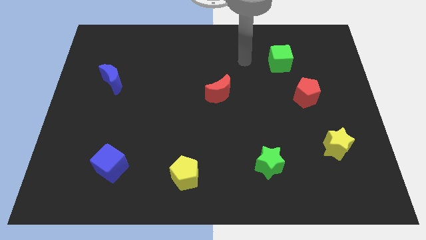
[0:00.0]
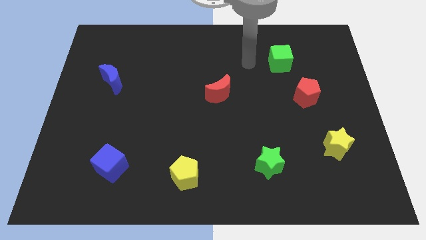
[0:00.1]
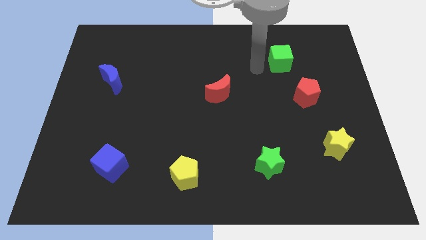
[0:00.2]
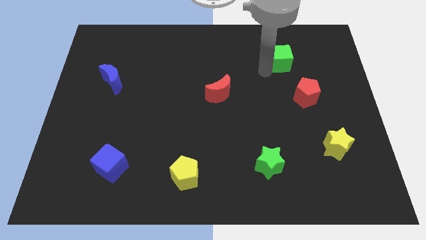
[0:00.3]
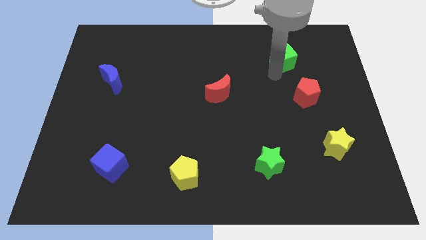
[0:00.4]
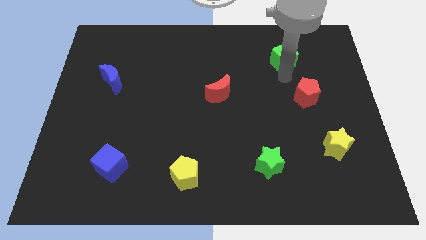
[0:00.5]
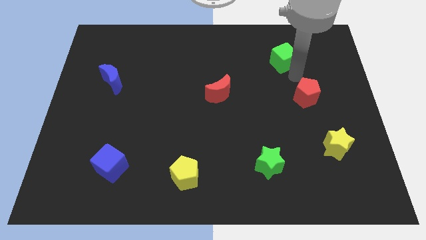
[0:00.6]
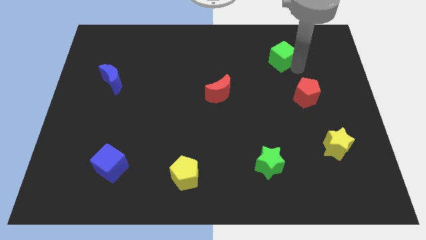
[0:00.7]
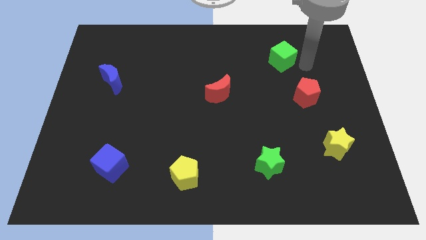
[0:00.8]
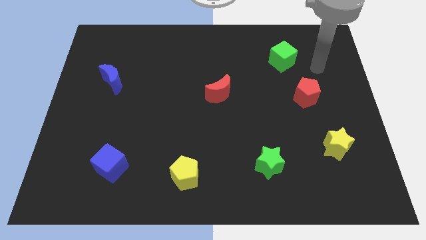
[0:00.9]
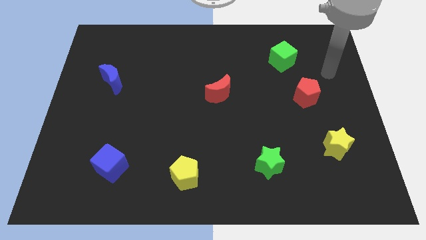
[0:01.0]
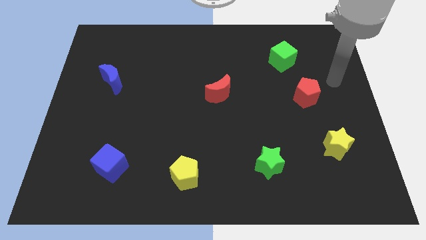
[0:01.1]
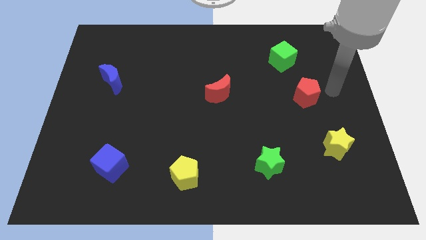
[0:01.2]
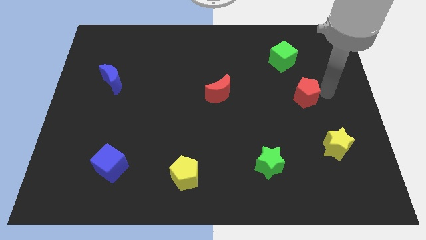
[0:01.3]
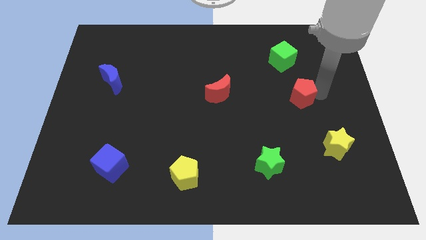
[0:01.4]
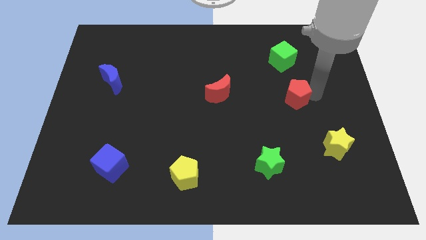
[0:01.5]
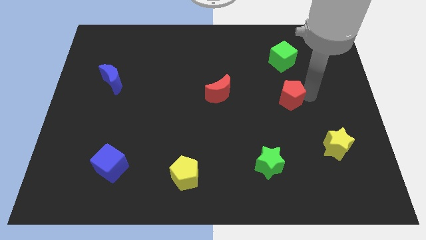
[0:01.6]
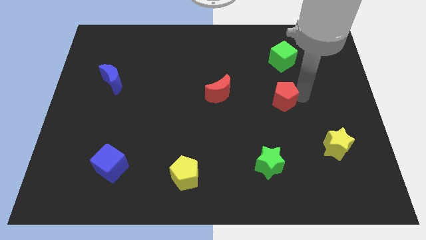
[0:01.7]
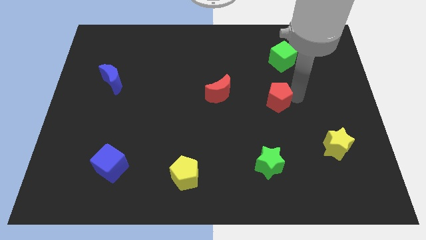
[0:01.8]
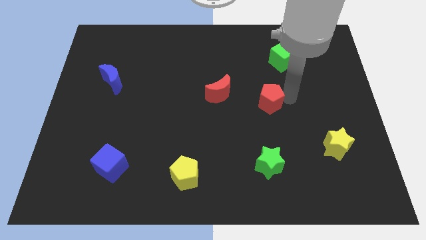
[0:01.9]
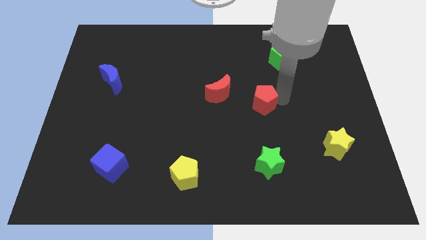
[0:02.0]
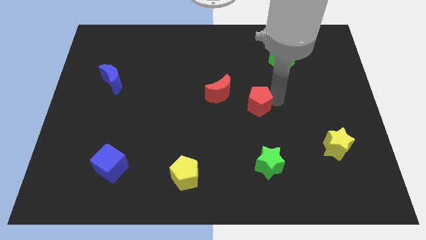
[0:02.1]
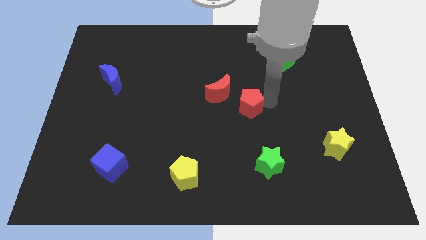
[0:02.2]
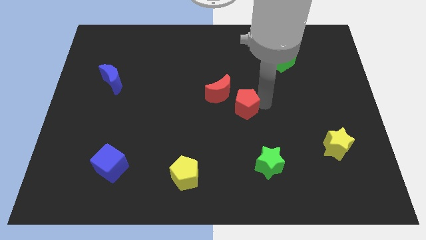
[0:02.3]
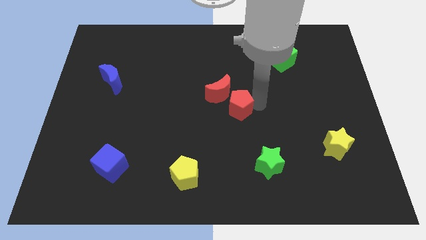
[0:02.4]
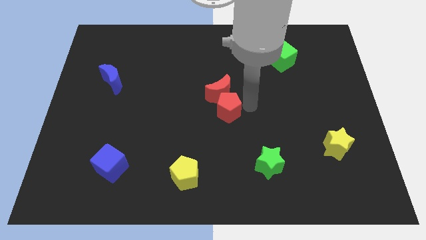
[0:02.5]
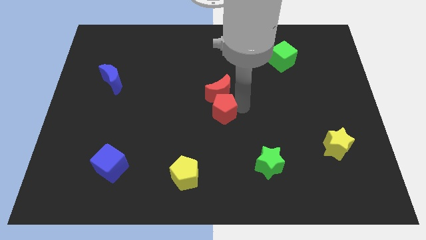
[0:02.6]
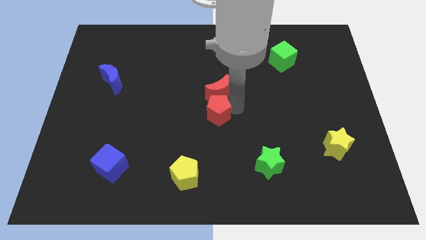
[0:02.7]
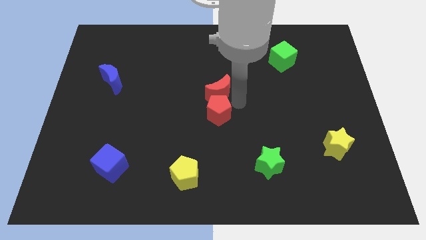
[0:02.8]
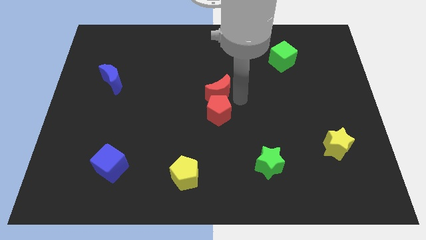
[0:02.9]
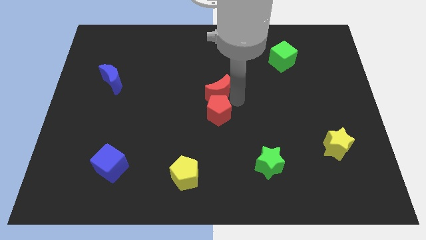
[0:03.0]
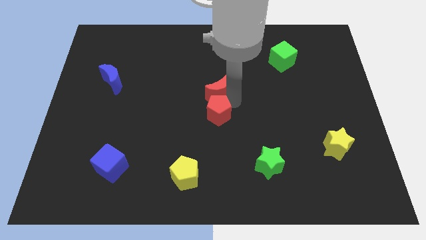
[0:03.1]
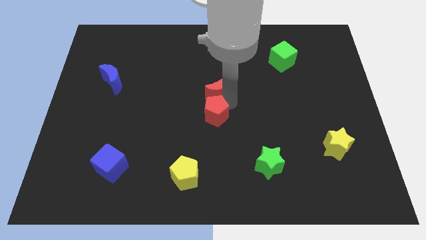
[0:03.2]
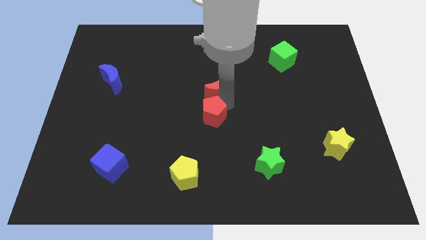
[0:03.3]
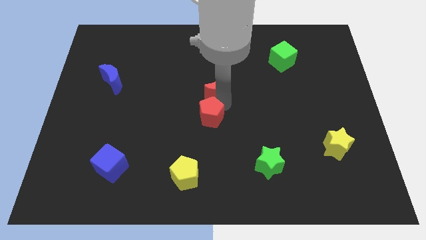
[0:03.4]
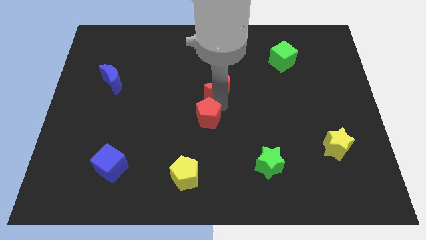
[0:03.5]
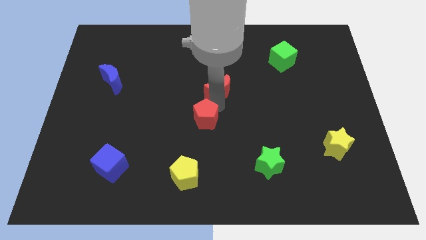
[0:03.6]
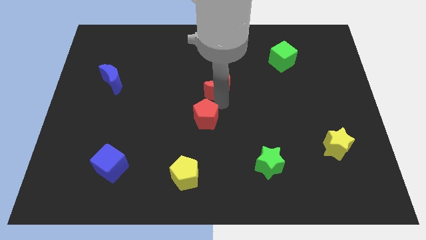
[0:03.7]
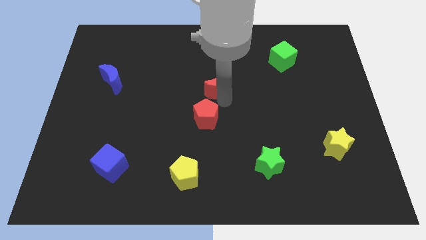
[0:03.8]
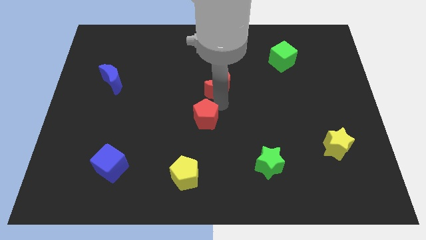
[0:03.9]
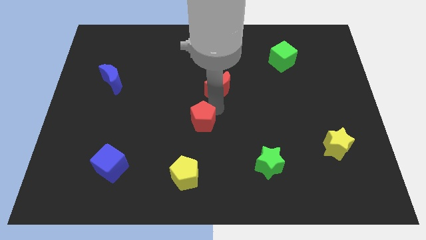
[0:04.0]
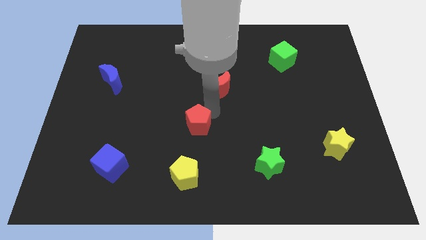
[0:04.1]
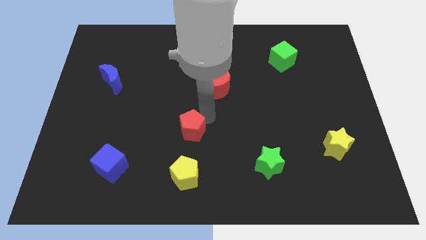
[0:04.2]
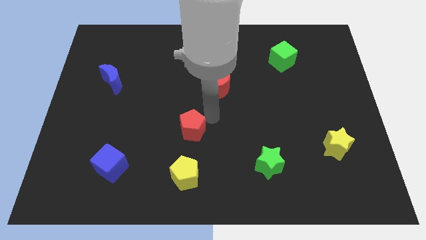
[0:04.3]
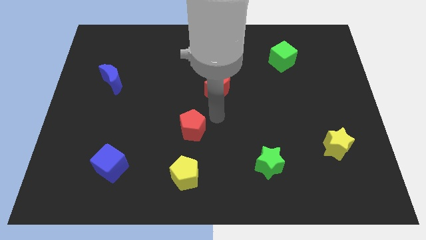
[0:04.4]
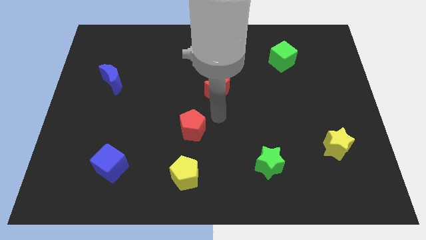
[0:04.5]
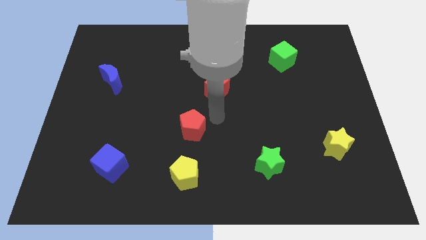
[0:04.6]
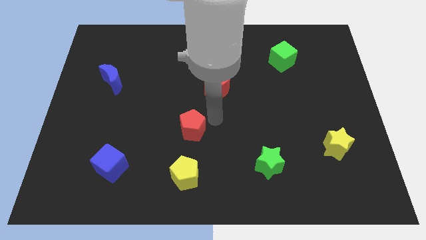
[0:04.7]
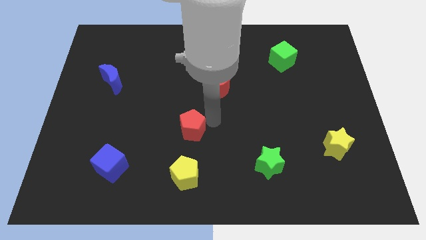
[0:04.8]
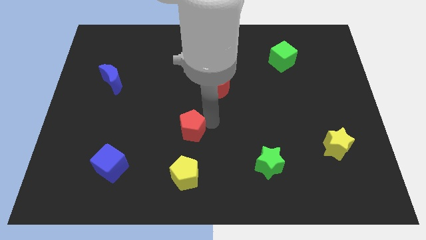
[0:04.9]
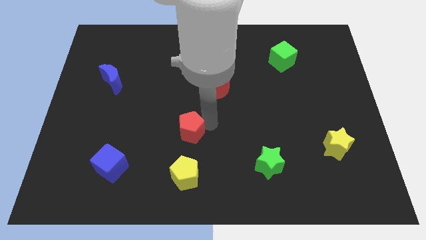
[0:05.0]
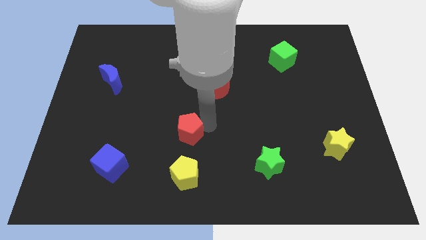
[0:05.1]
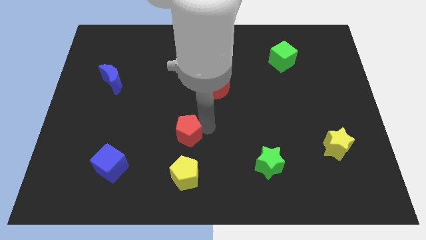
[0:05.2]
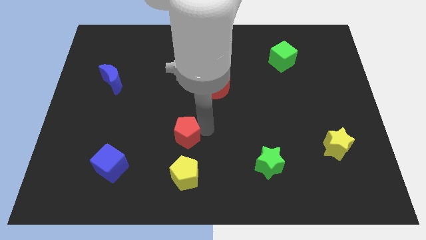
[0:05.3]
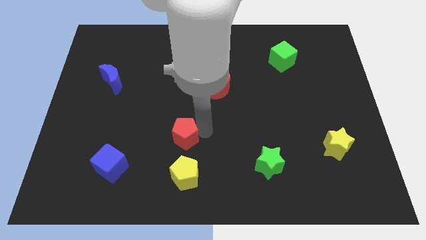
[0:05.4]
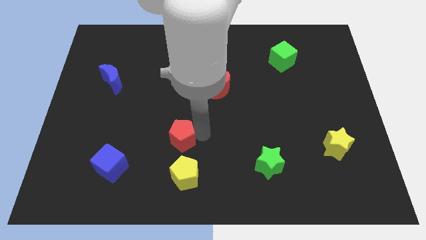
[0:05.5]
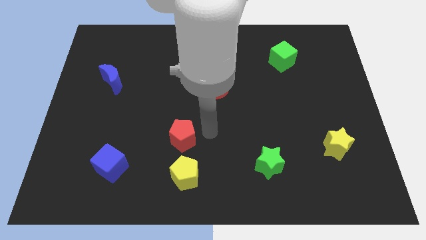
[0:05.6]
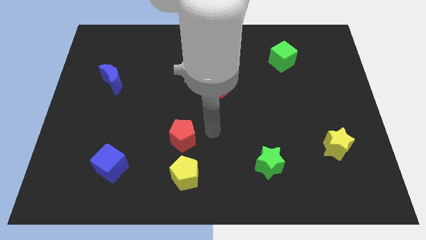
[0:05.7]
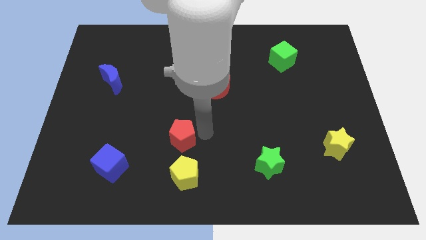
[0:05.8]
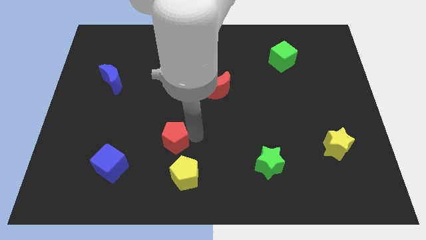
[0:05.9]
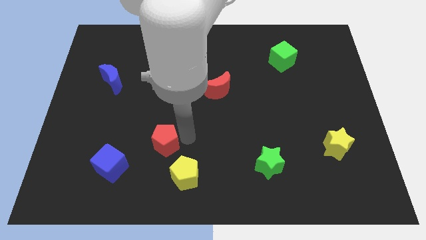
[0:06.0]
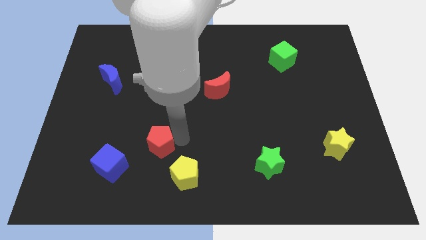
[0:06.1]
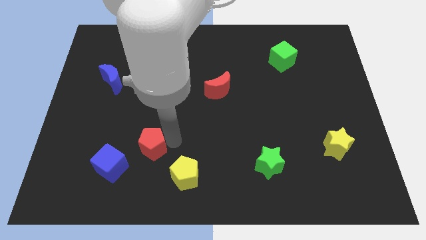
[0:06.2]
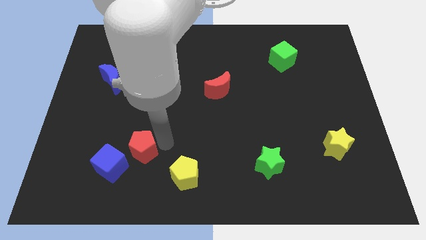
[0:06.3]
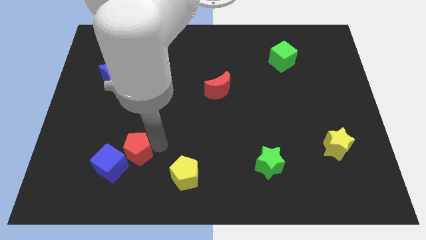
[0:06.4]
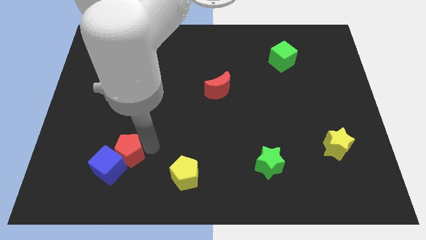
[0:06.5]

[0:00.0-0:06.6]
push the red pentagon next to the blue cube

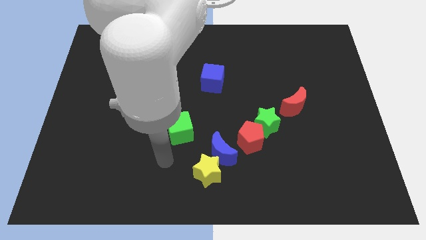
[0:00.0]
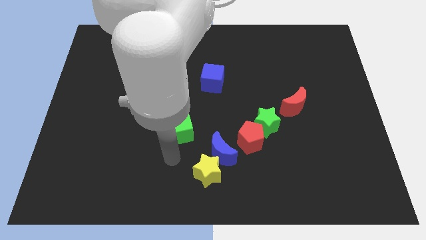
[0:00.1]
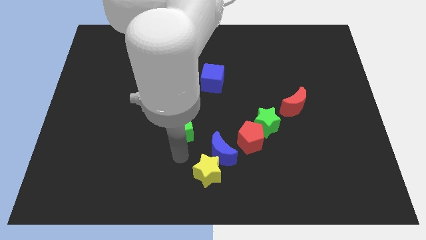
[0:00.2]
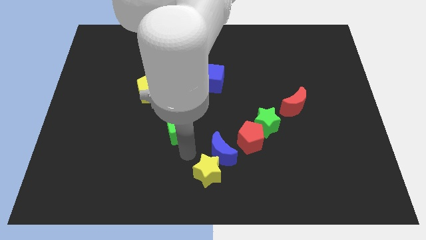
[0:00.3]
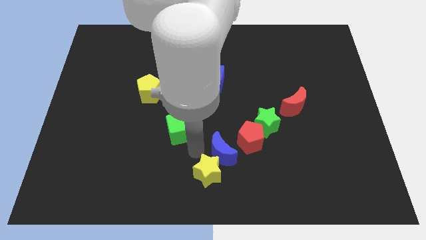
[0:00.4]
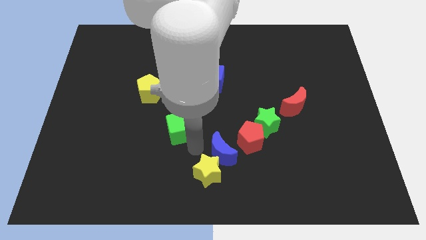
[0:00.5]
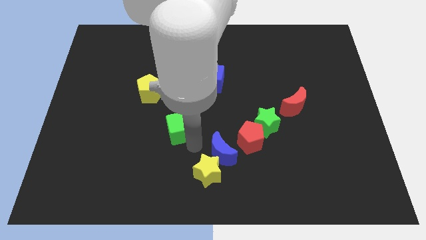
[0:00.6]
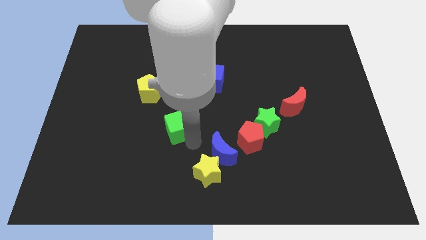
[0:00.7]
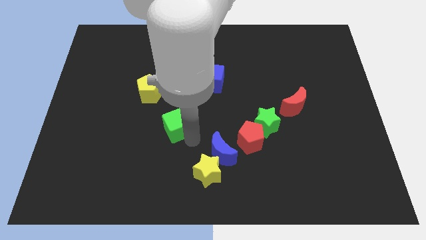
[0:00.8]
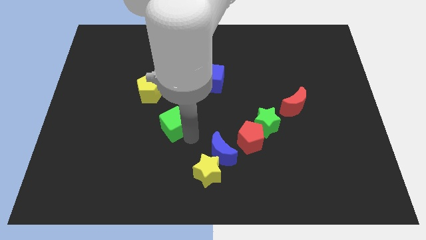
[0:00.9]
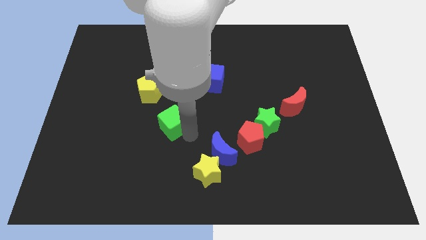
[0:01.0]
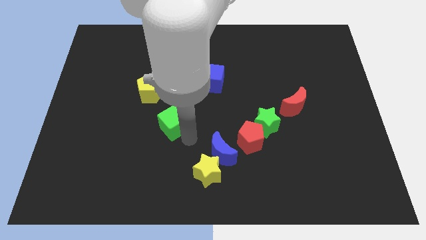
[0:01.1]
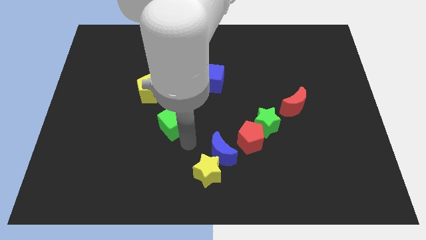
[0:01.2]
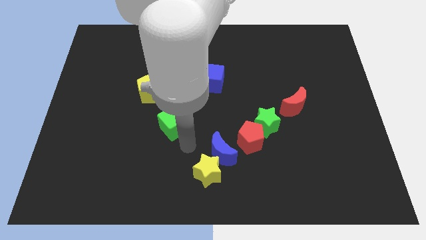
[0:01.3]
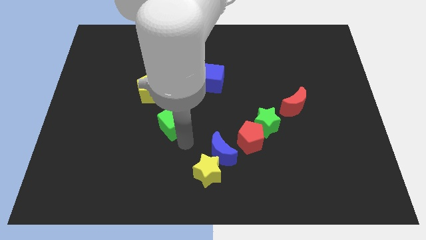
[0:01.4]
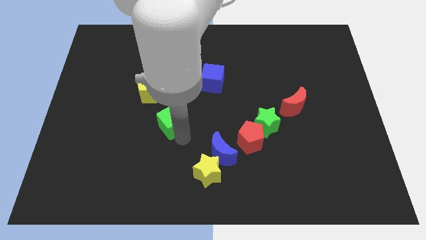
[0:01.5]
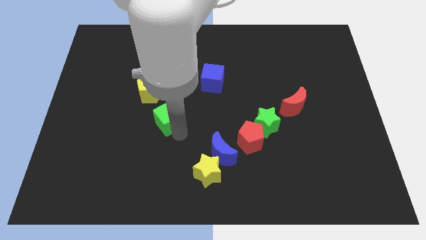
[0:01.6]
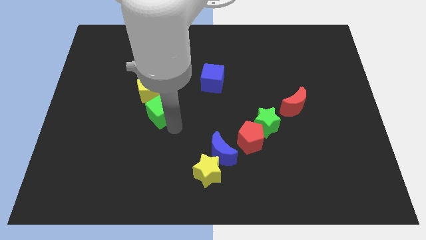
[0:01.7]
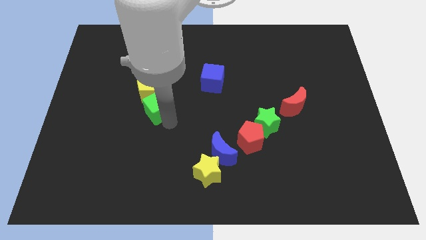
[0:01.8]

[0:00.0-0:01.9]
slide the green cube next to the yellow pentagon
